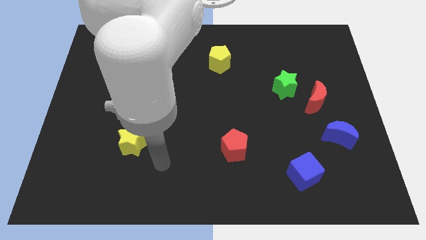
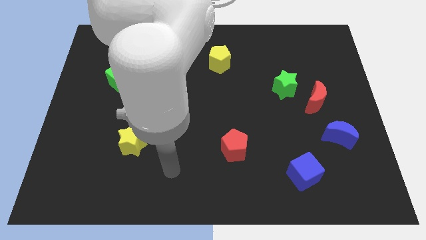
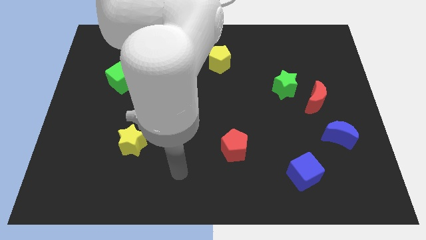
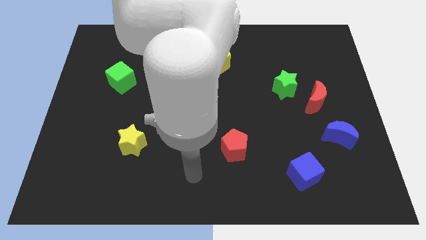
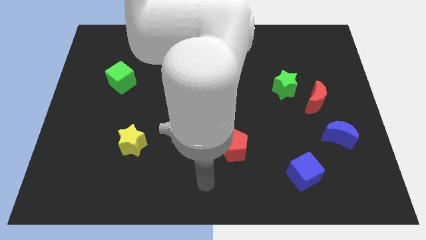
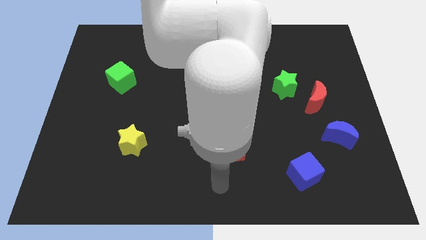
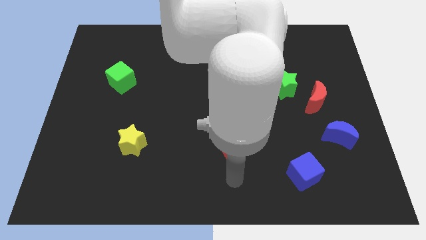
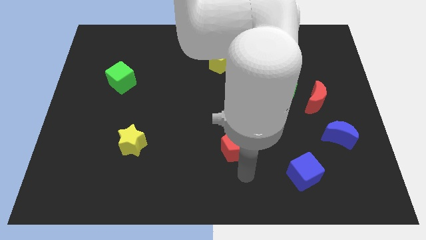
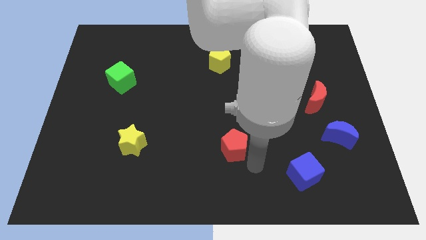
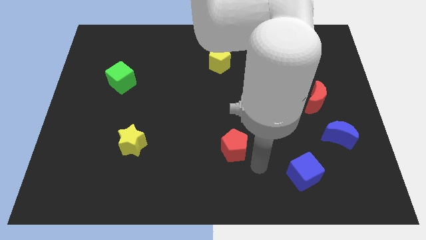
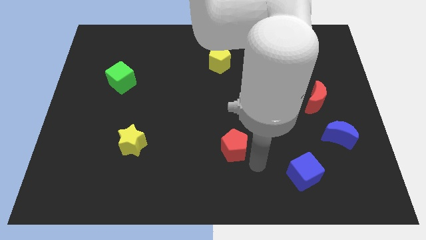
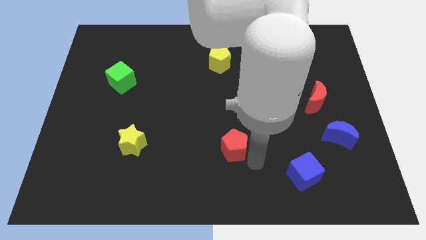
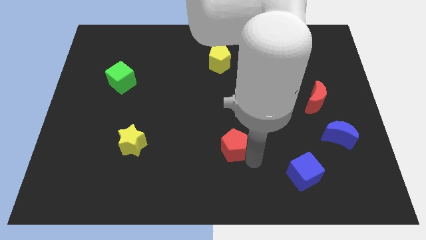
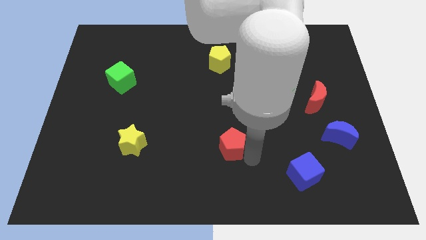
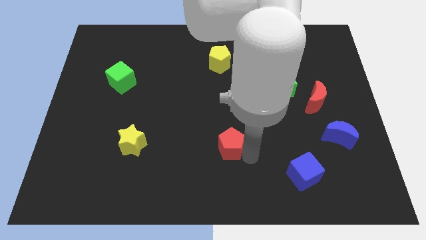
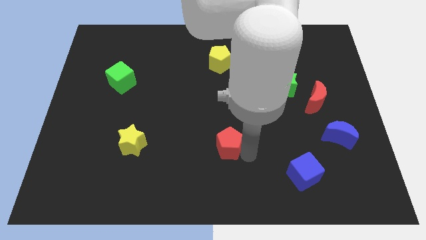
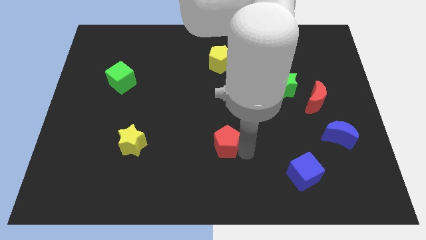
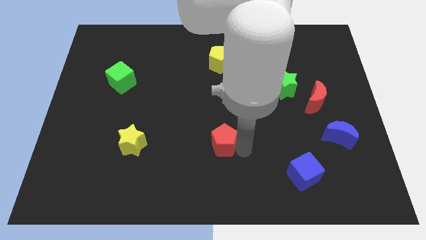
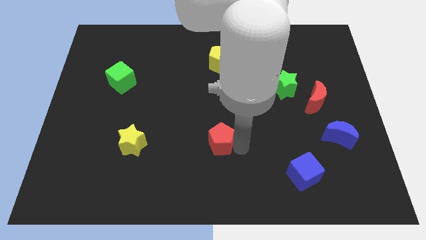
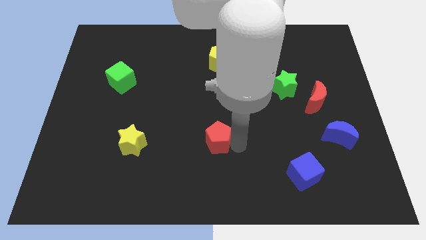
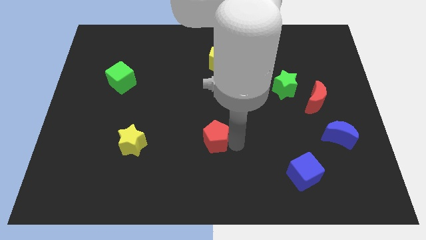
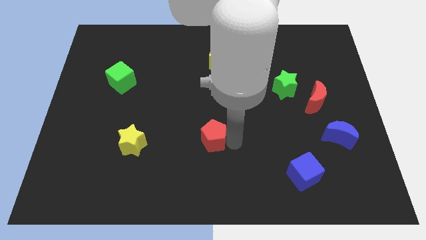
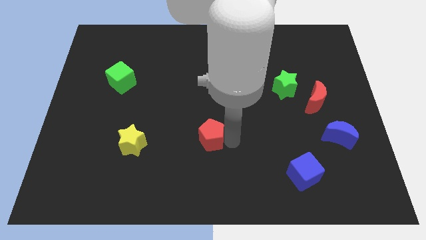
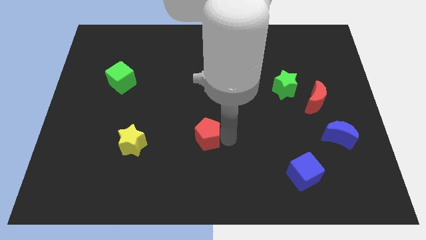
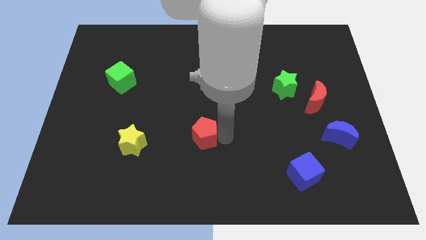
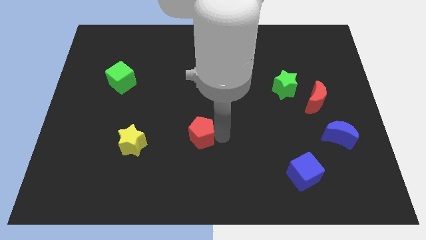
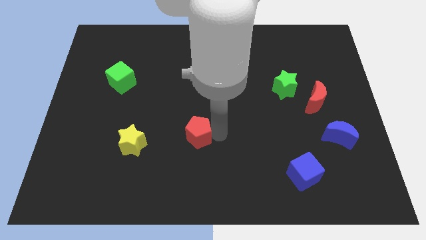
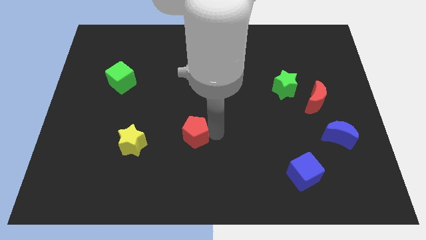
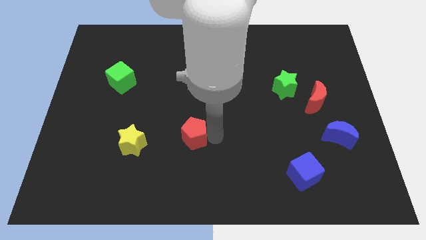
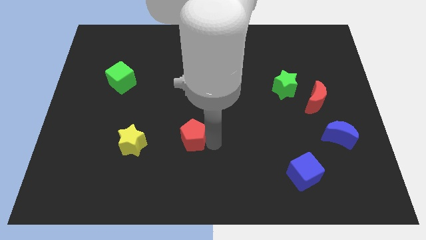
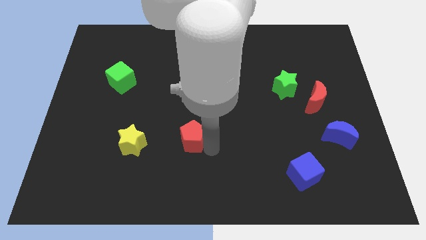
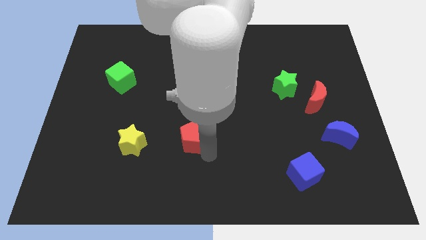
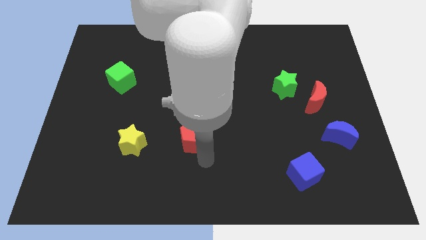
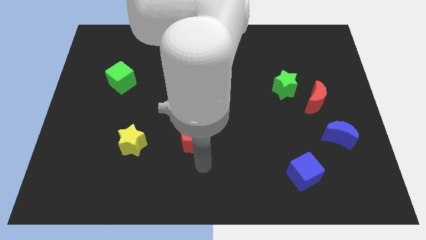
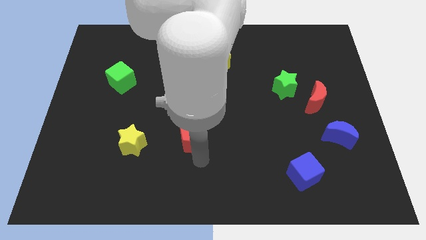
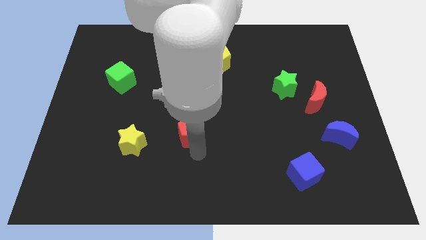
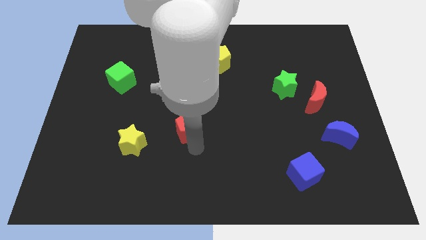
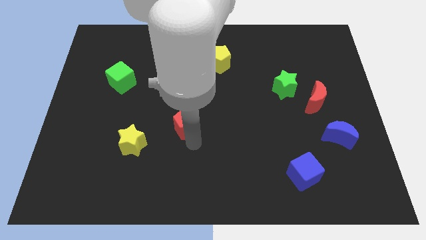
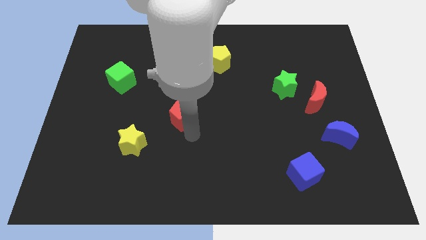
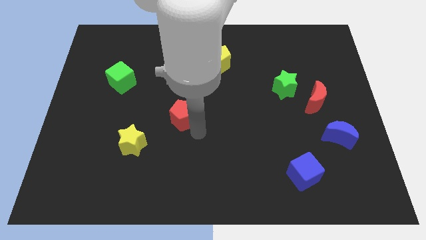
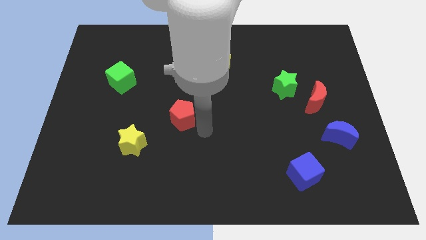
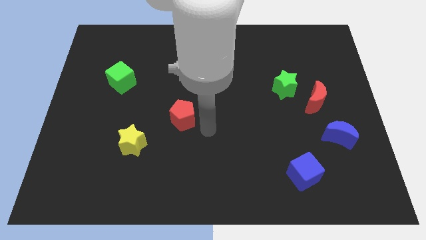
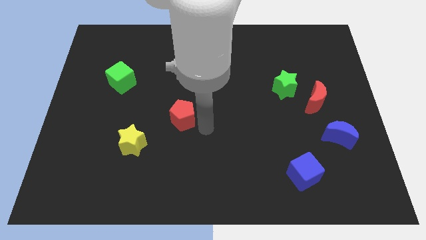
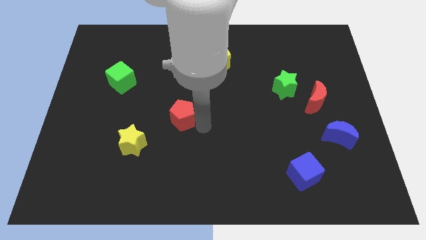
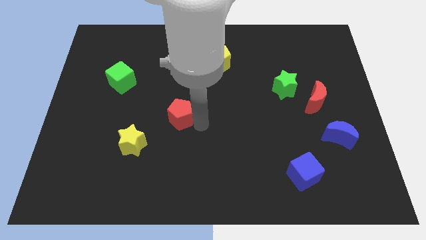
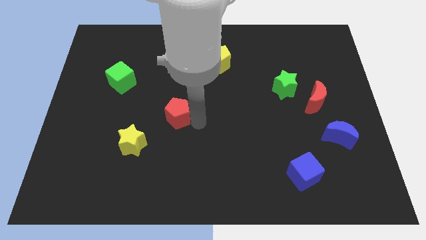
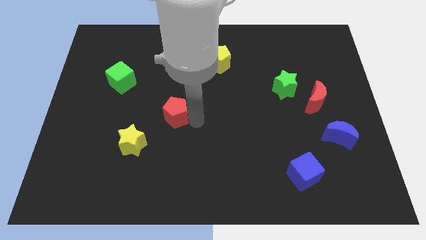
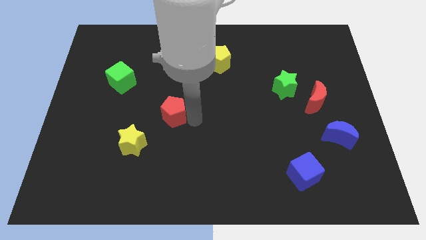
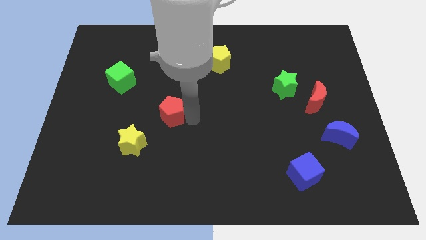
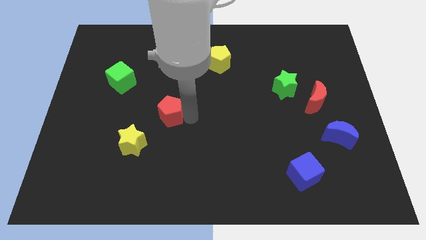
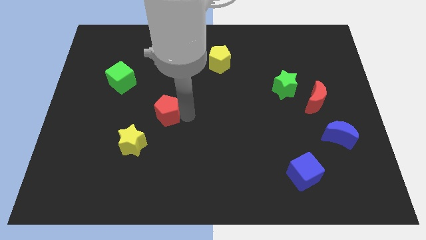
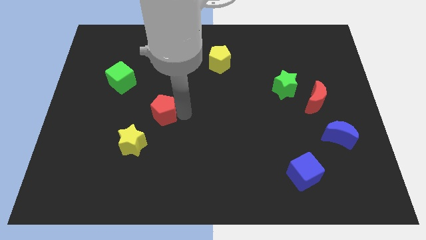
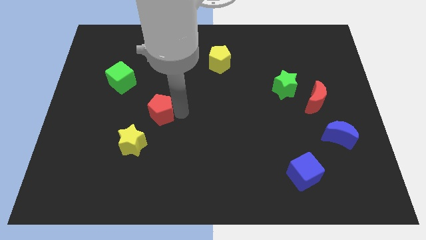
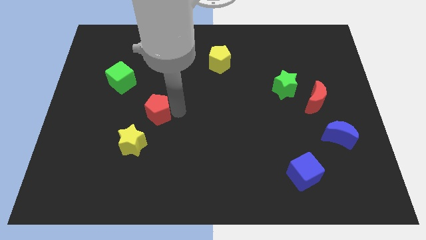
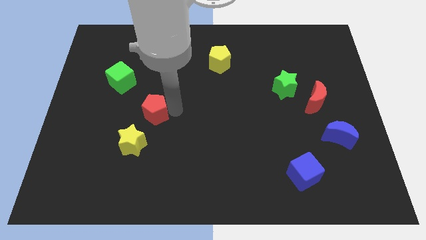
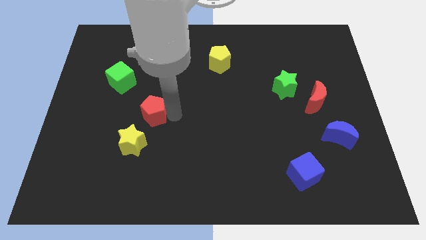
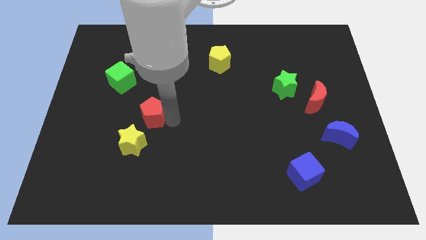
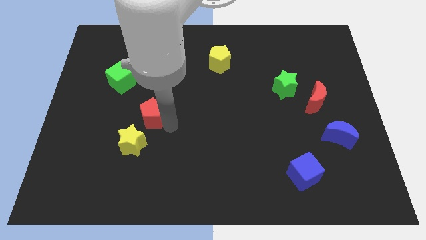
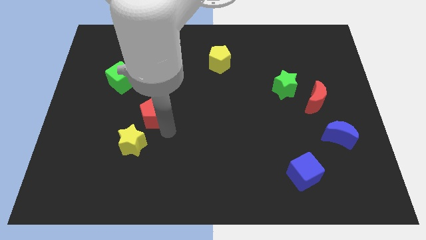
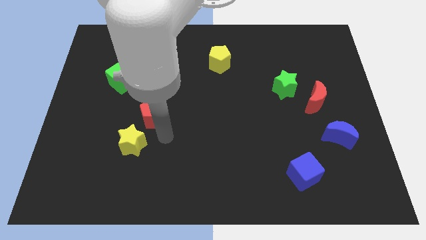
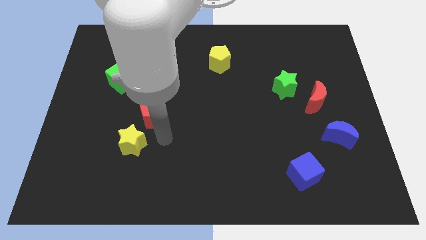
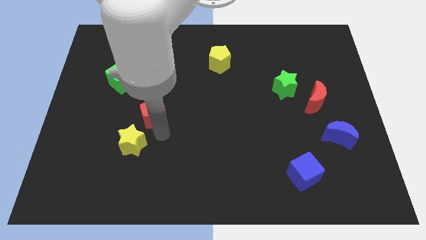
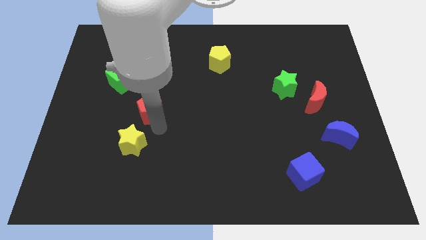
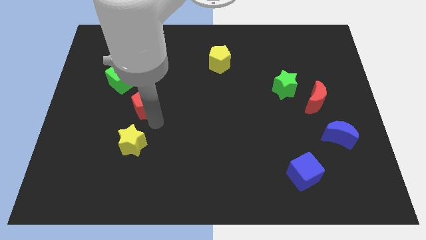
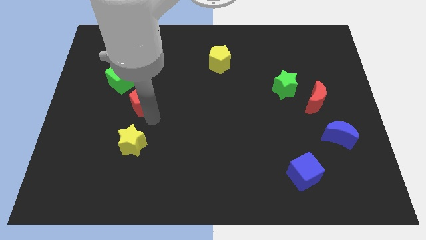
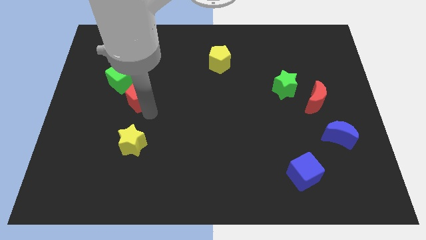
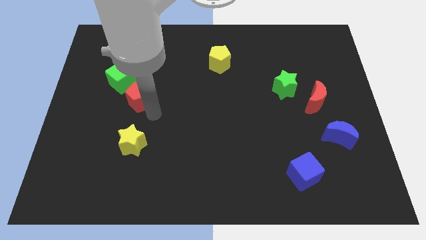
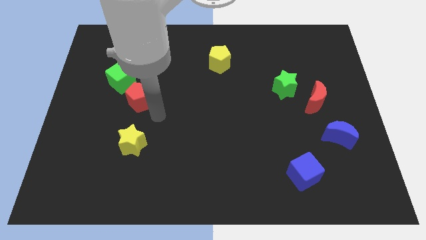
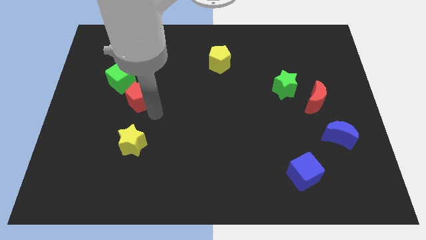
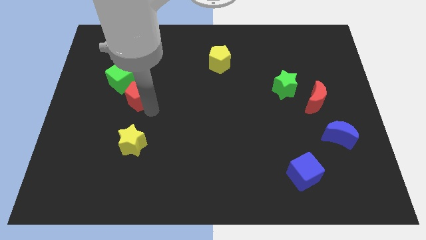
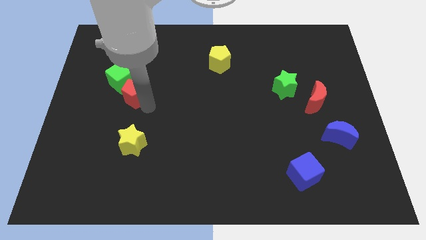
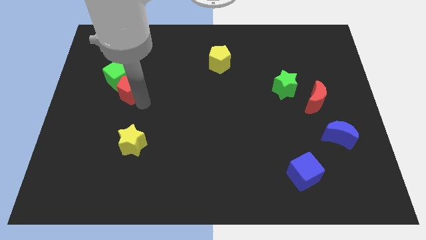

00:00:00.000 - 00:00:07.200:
put the red pentagon towards the green cube
